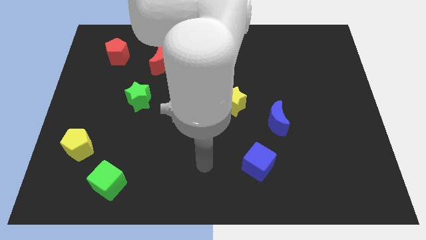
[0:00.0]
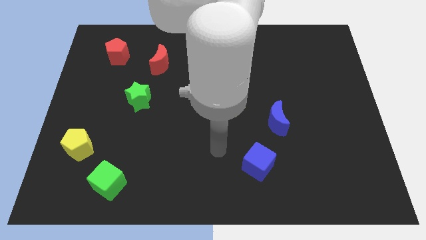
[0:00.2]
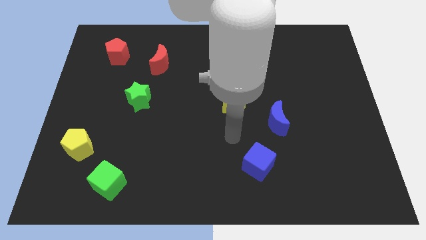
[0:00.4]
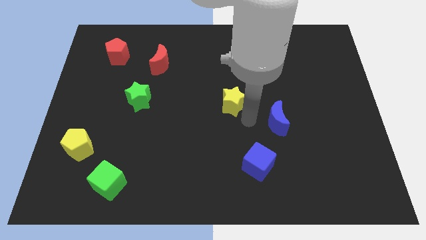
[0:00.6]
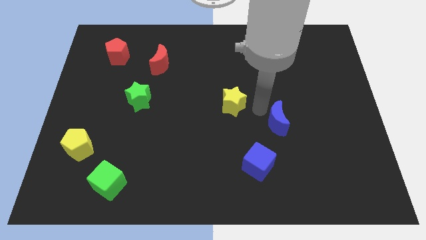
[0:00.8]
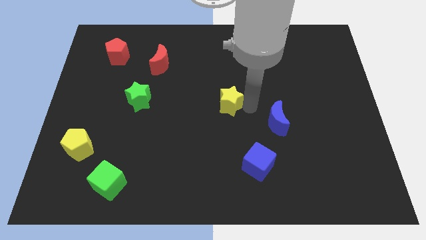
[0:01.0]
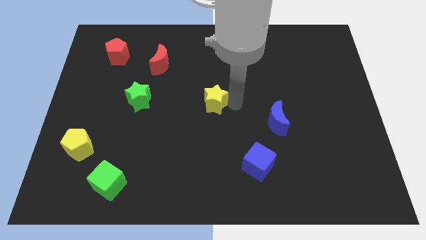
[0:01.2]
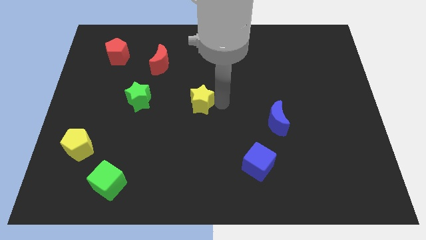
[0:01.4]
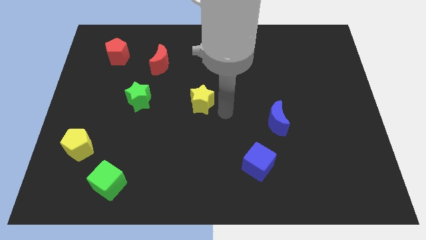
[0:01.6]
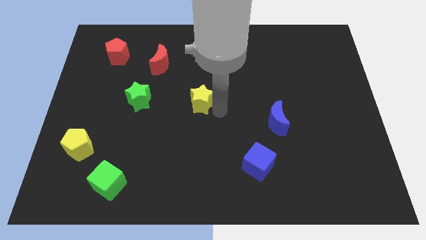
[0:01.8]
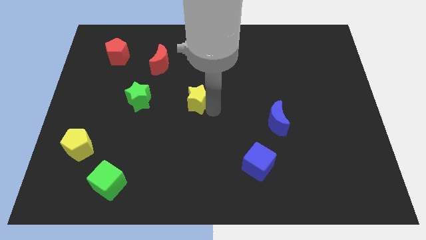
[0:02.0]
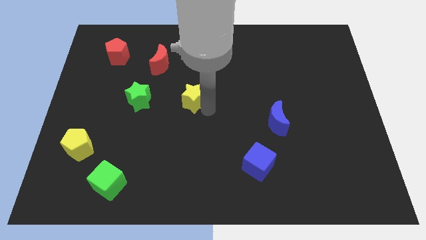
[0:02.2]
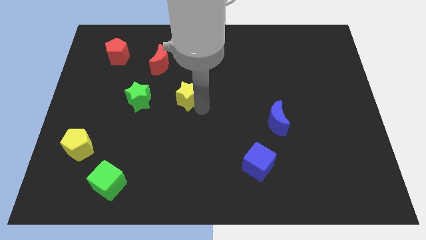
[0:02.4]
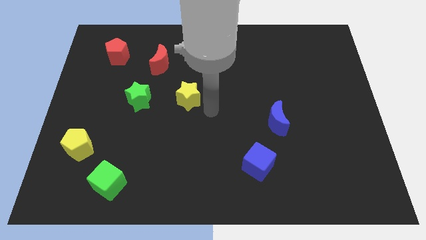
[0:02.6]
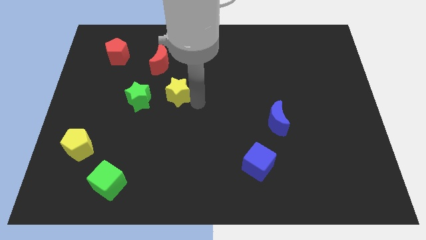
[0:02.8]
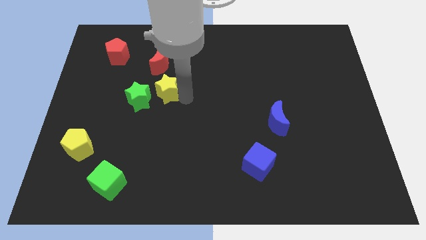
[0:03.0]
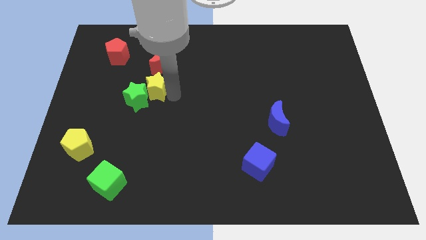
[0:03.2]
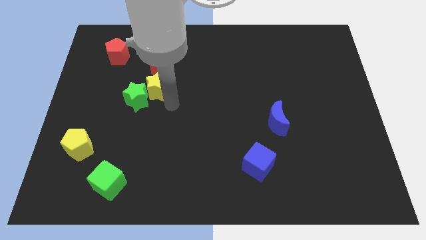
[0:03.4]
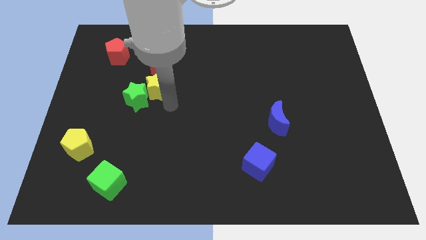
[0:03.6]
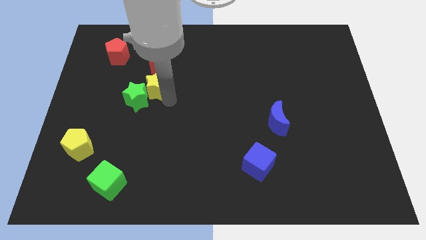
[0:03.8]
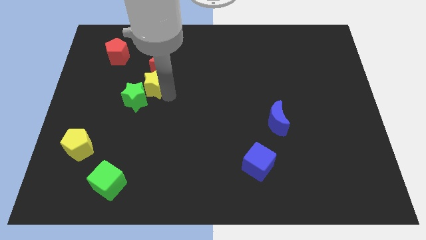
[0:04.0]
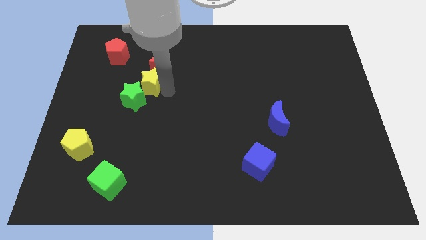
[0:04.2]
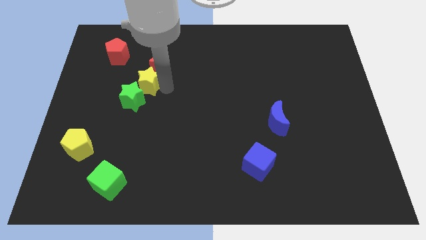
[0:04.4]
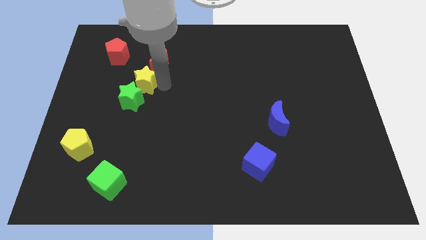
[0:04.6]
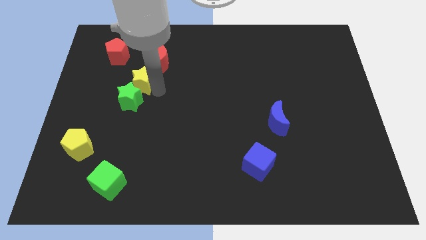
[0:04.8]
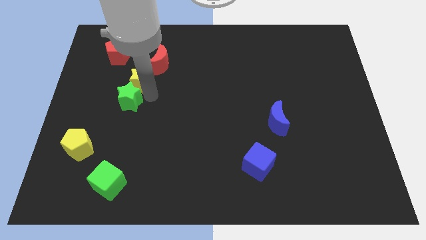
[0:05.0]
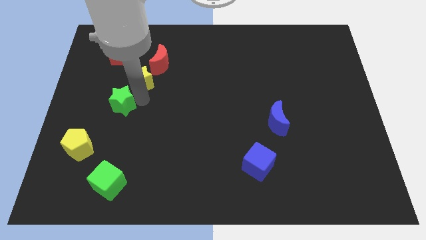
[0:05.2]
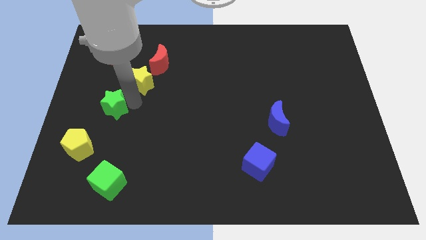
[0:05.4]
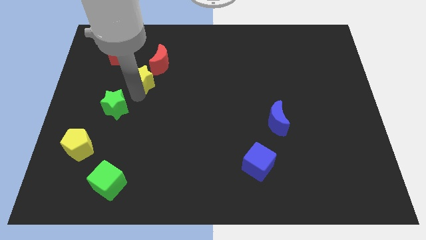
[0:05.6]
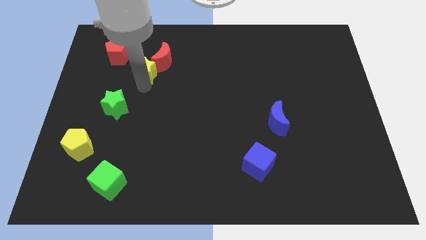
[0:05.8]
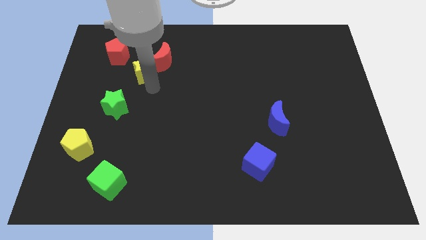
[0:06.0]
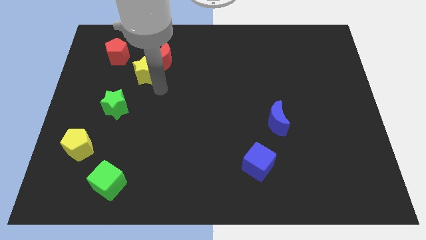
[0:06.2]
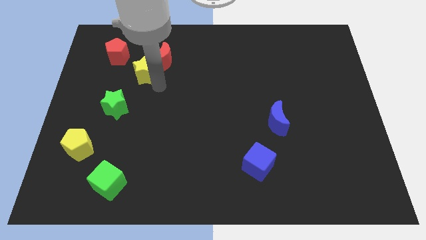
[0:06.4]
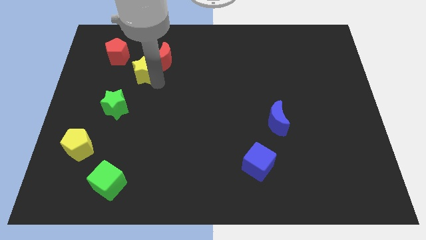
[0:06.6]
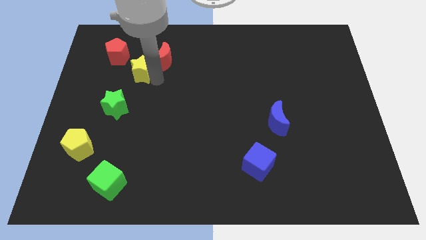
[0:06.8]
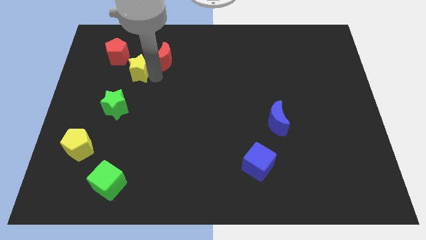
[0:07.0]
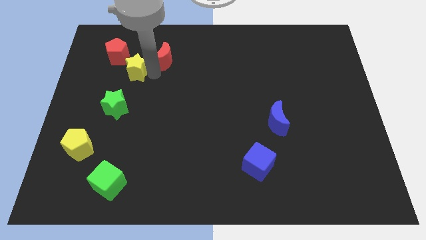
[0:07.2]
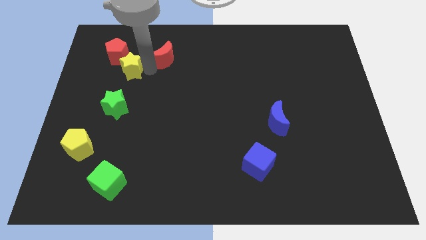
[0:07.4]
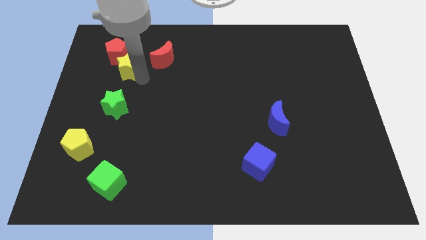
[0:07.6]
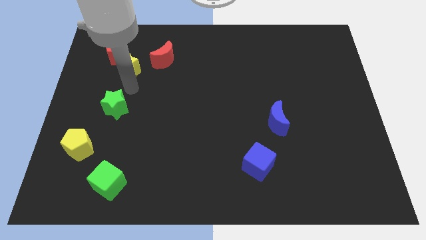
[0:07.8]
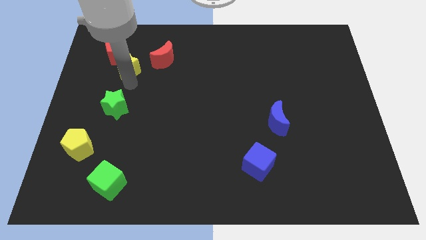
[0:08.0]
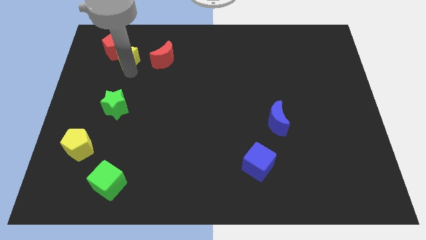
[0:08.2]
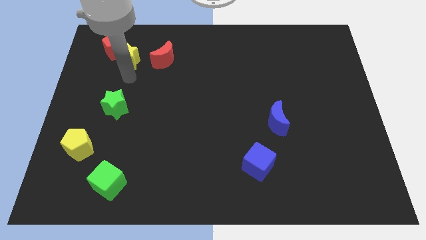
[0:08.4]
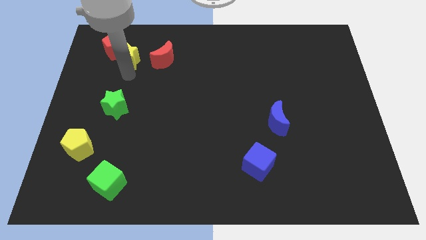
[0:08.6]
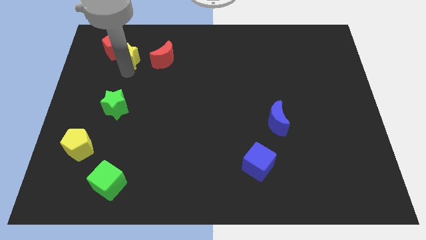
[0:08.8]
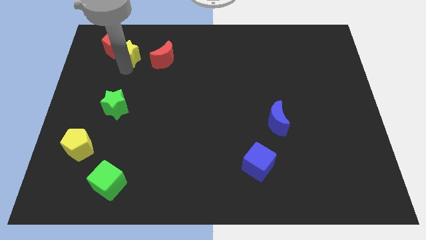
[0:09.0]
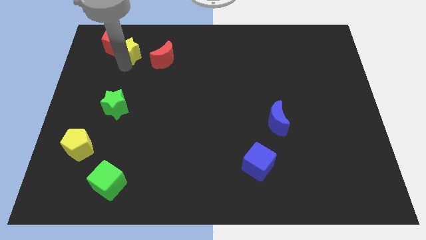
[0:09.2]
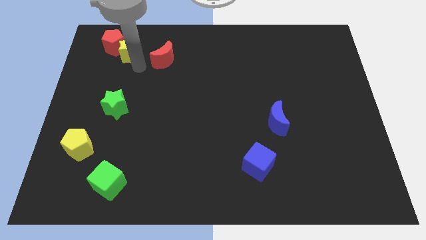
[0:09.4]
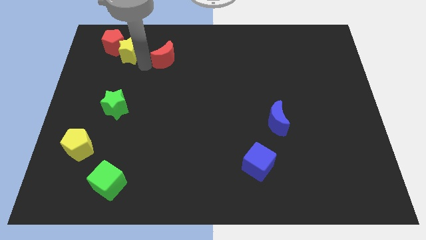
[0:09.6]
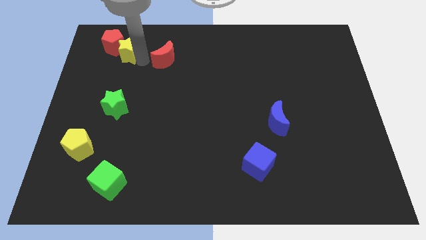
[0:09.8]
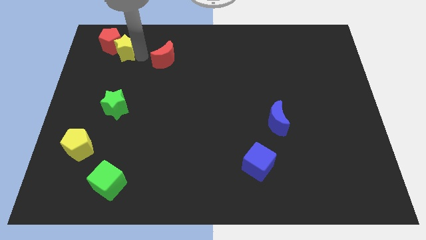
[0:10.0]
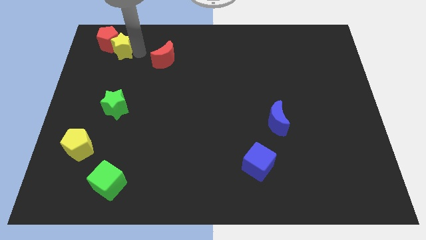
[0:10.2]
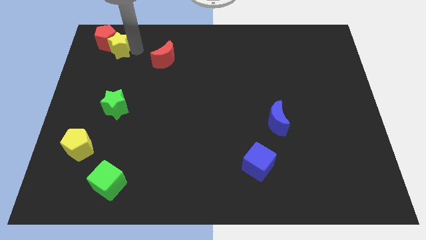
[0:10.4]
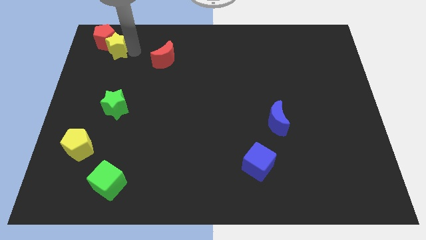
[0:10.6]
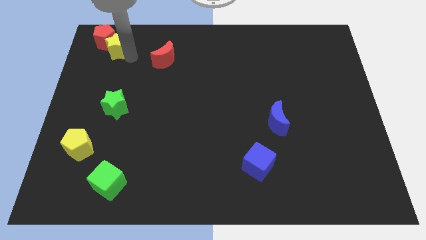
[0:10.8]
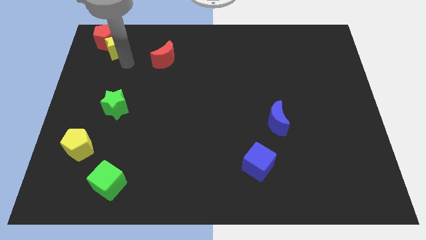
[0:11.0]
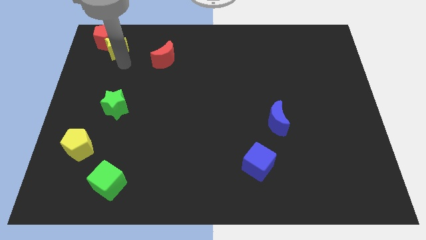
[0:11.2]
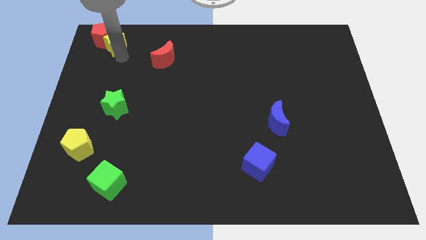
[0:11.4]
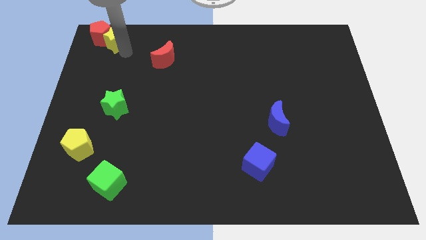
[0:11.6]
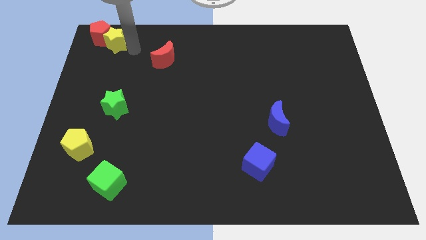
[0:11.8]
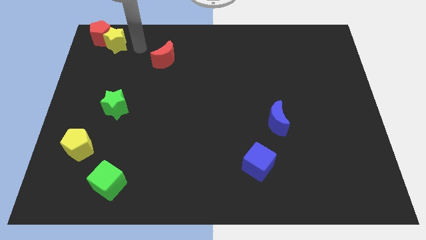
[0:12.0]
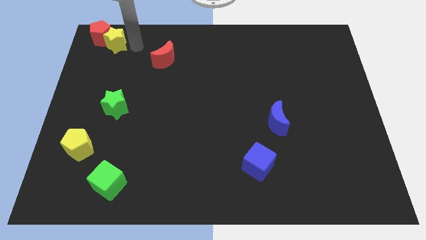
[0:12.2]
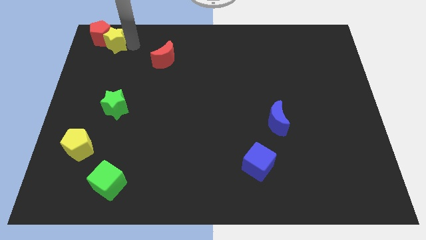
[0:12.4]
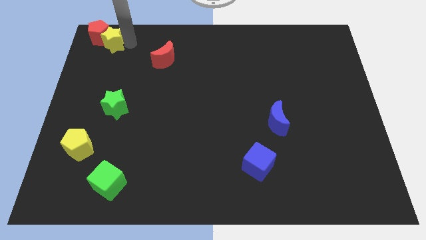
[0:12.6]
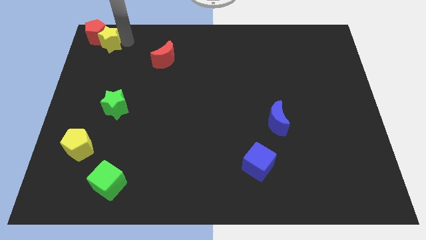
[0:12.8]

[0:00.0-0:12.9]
move the yellow star to the top left of the board

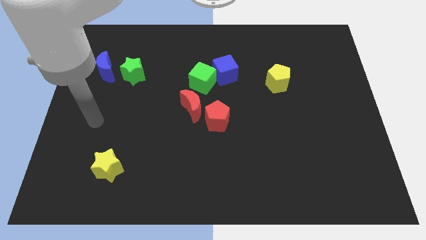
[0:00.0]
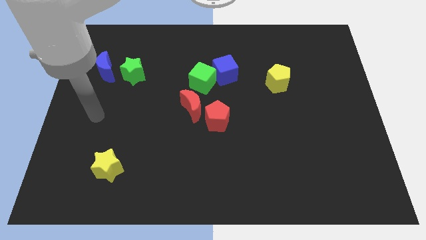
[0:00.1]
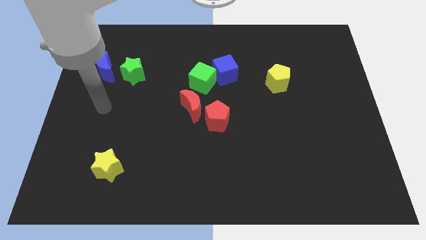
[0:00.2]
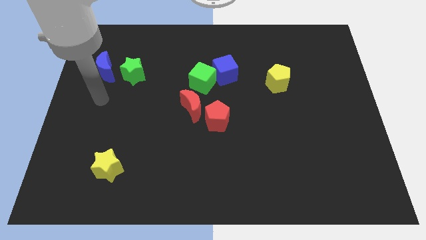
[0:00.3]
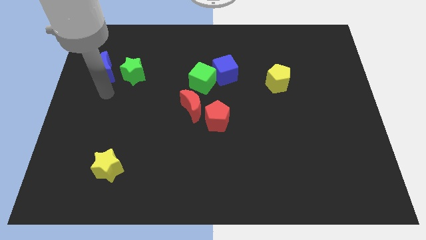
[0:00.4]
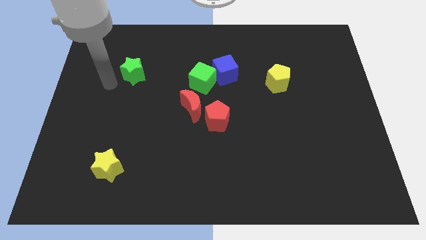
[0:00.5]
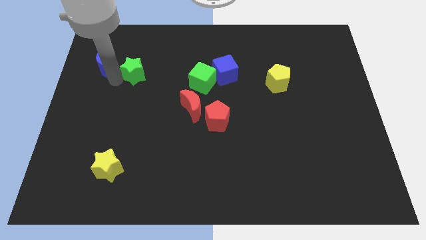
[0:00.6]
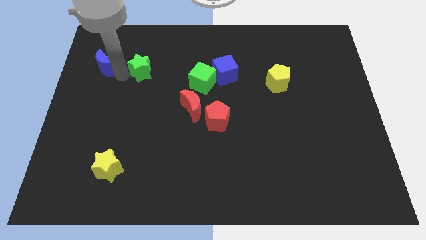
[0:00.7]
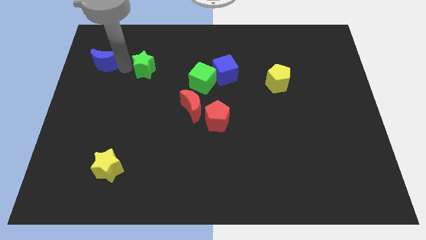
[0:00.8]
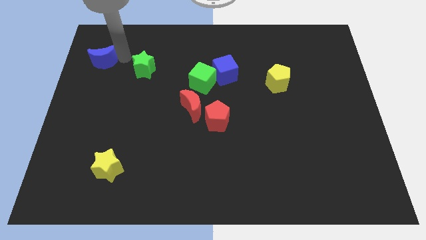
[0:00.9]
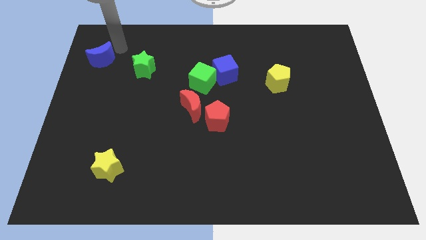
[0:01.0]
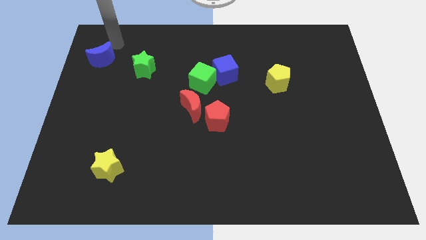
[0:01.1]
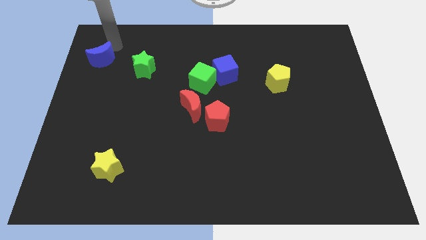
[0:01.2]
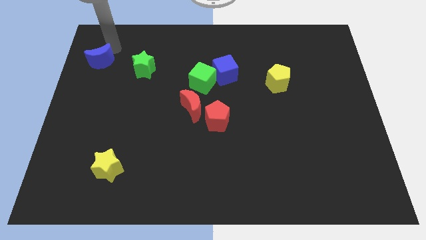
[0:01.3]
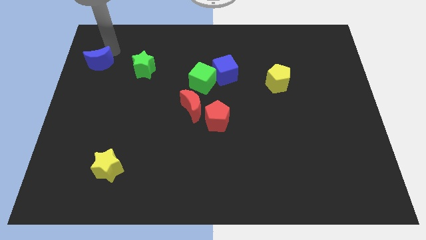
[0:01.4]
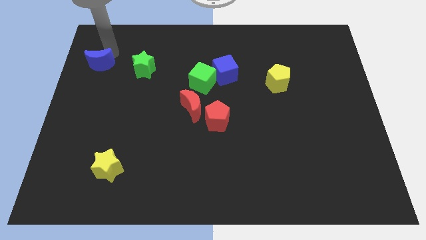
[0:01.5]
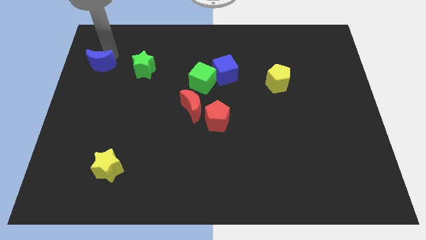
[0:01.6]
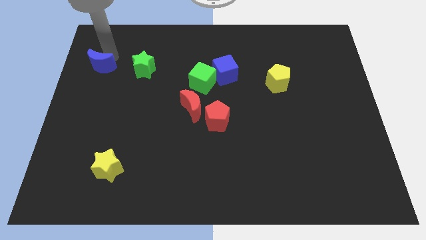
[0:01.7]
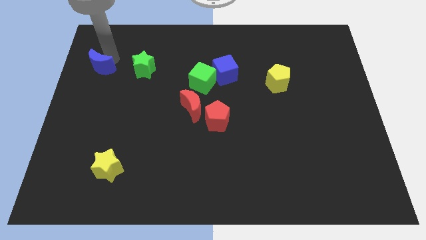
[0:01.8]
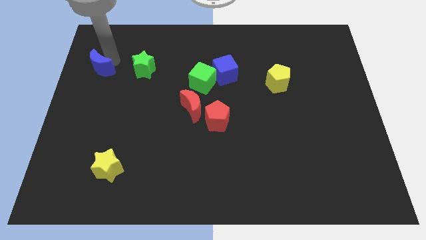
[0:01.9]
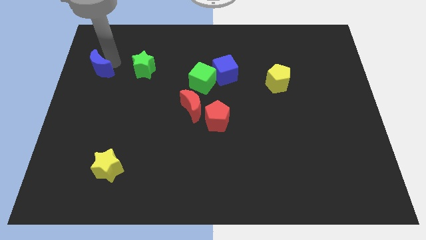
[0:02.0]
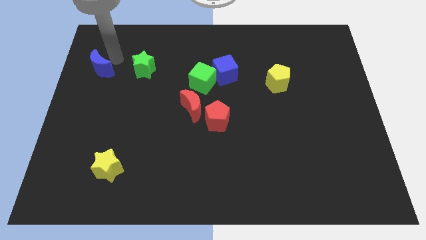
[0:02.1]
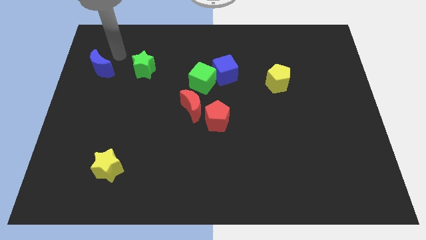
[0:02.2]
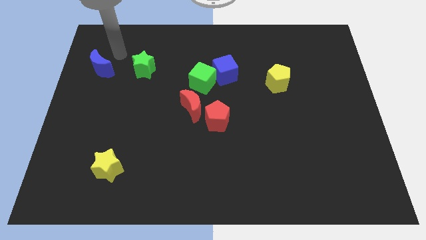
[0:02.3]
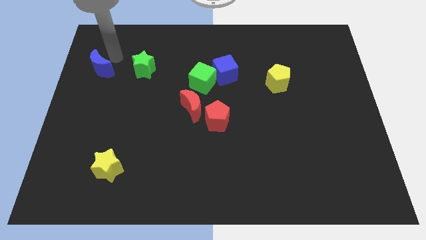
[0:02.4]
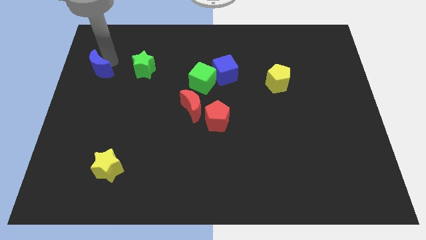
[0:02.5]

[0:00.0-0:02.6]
put the blue moon to the left side of the board
